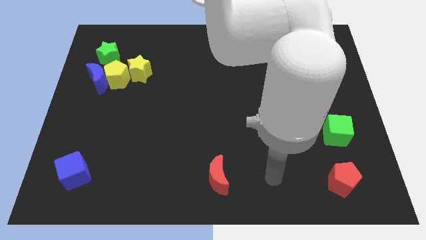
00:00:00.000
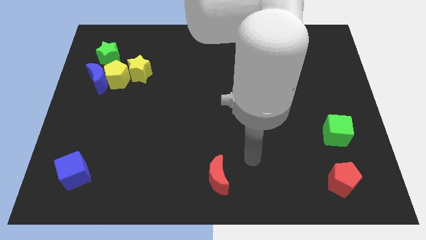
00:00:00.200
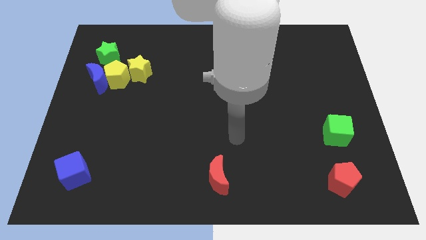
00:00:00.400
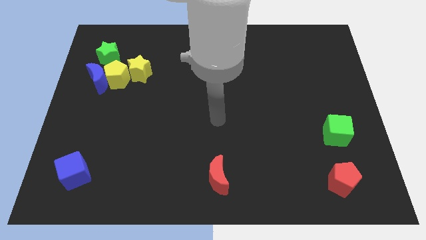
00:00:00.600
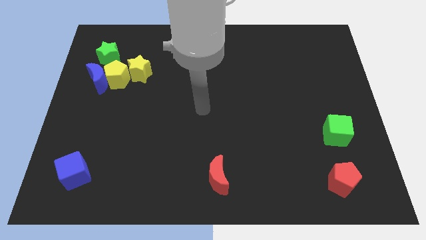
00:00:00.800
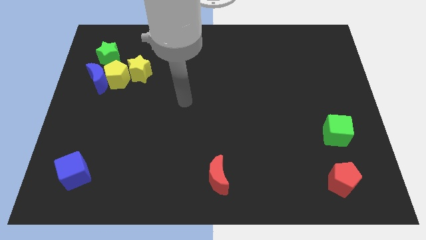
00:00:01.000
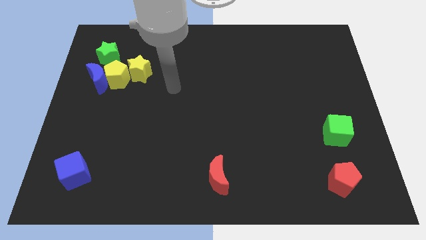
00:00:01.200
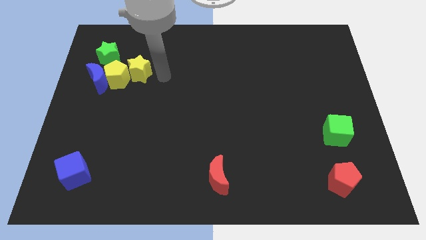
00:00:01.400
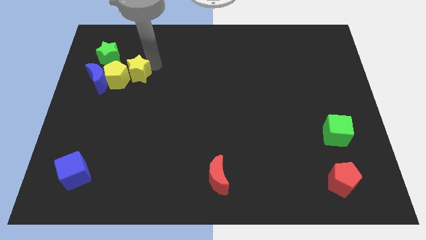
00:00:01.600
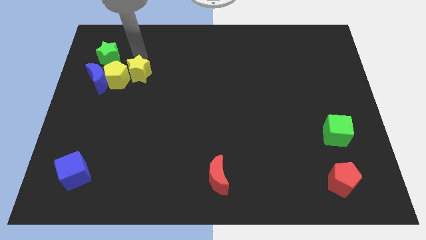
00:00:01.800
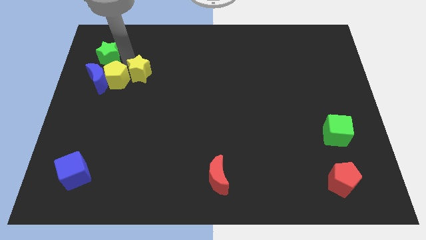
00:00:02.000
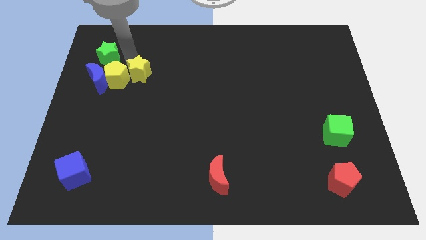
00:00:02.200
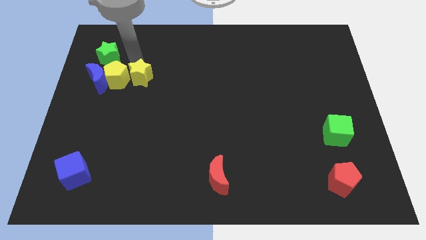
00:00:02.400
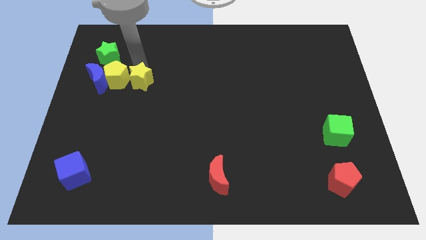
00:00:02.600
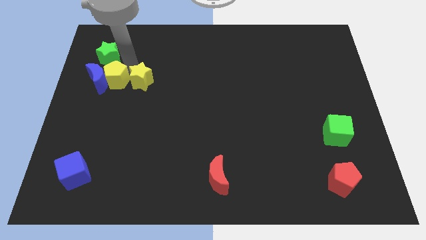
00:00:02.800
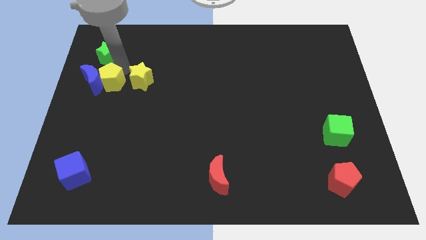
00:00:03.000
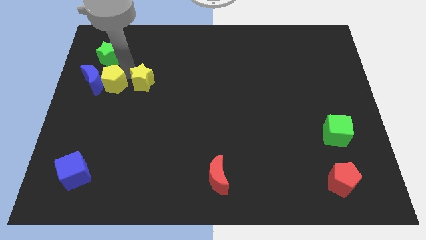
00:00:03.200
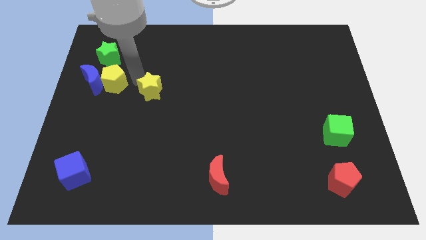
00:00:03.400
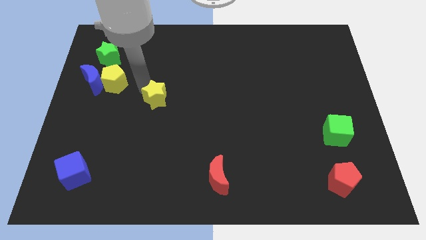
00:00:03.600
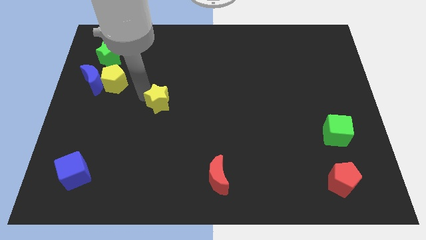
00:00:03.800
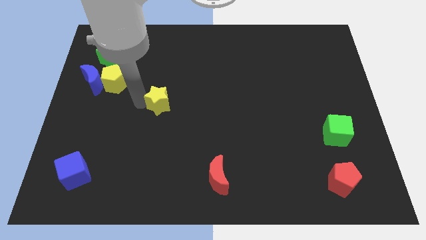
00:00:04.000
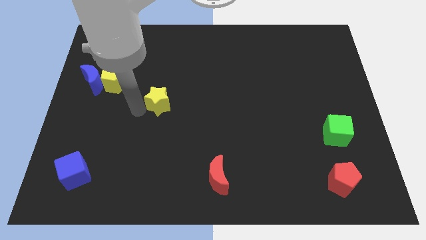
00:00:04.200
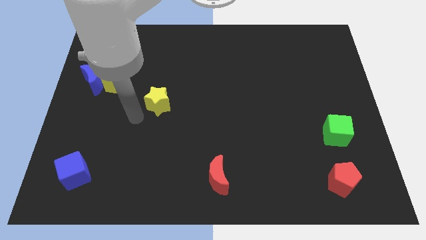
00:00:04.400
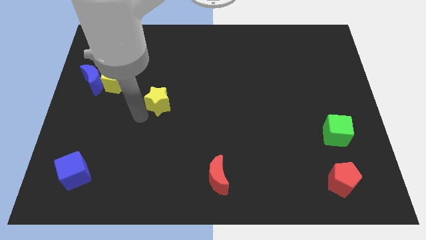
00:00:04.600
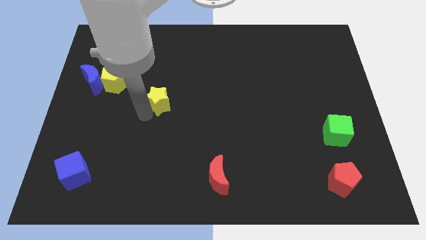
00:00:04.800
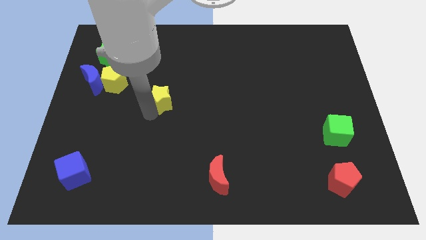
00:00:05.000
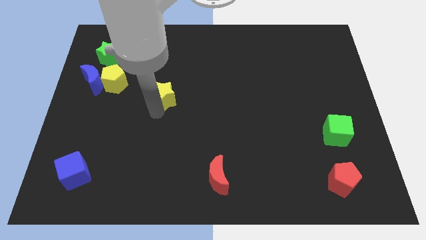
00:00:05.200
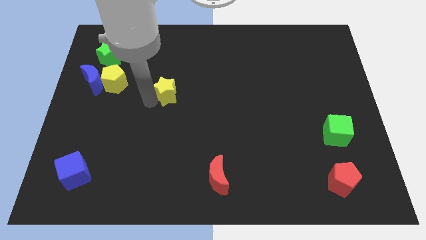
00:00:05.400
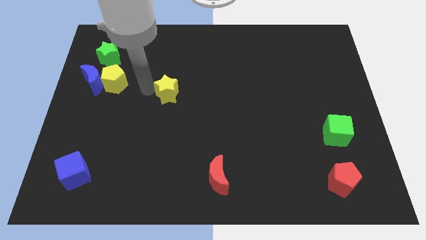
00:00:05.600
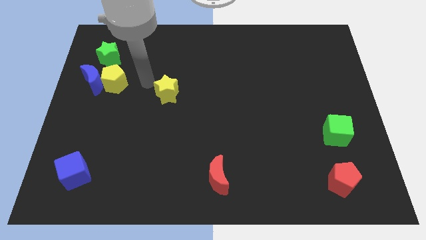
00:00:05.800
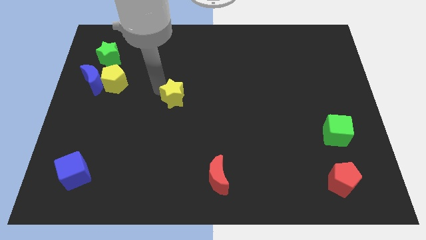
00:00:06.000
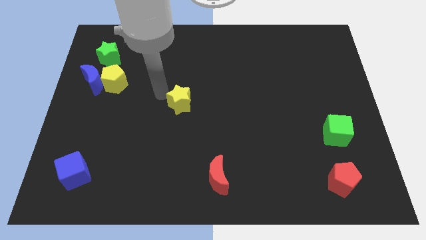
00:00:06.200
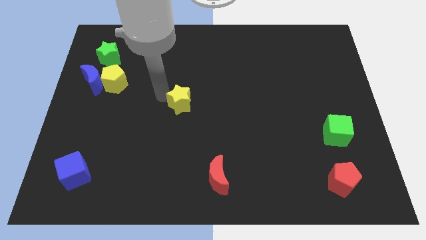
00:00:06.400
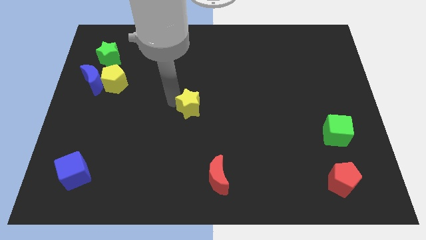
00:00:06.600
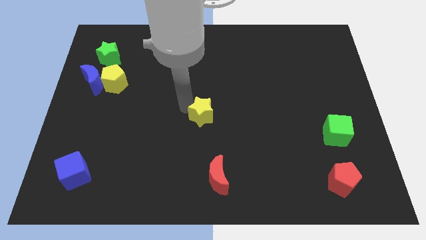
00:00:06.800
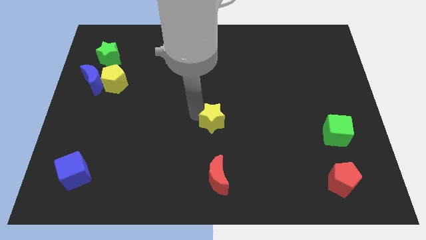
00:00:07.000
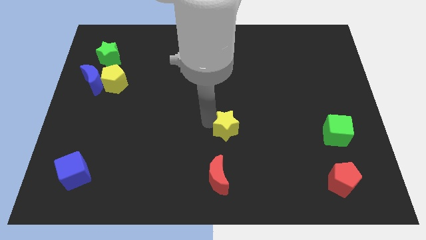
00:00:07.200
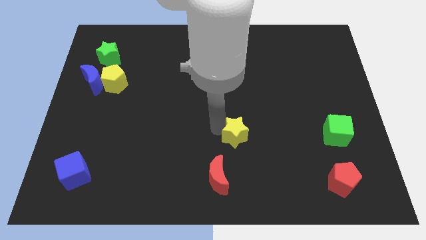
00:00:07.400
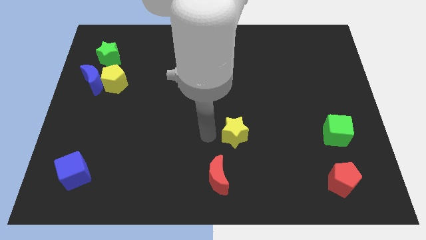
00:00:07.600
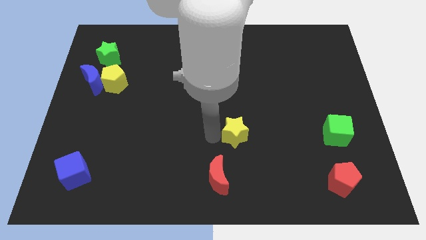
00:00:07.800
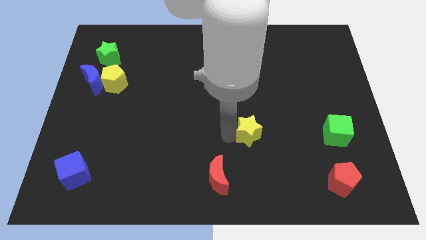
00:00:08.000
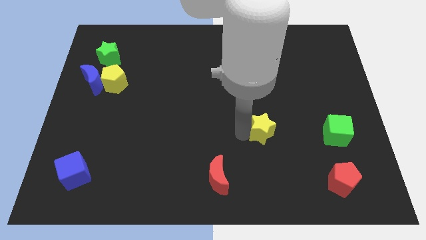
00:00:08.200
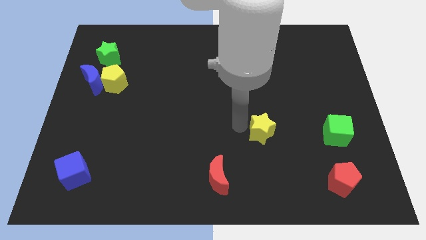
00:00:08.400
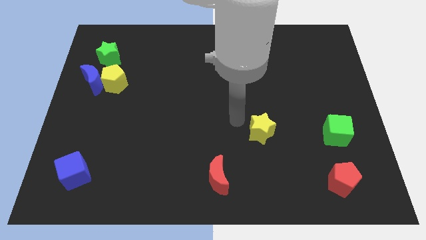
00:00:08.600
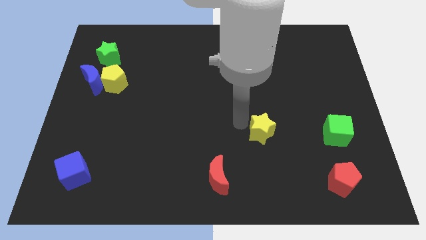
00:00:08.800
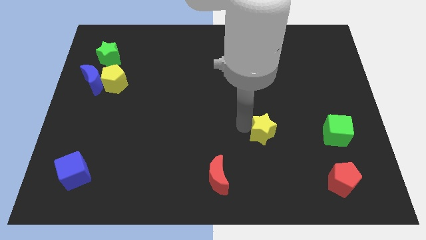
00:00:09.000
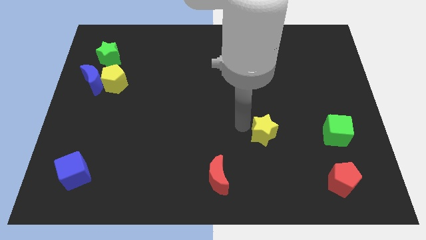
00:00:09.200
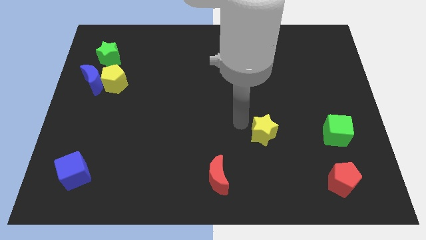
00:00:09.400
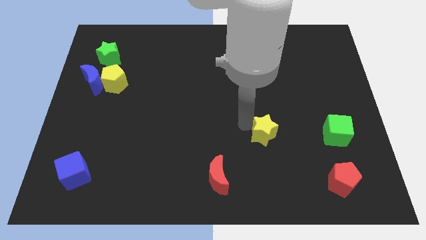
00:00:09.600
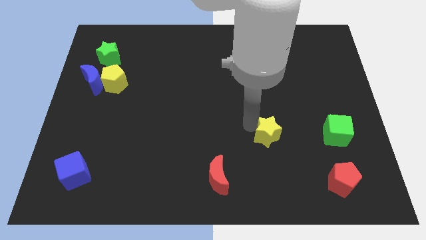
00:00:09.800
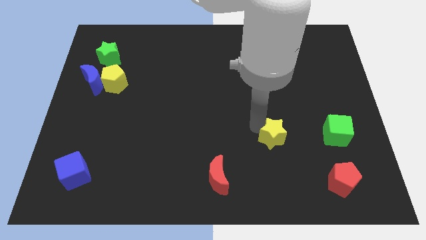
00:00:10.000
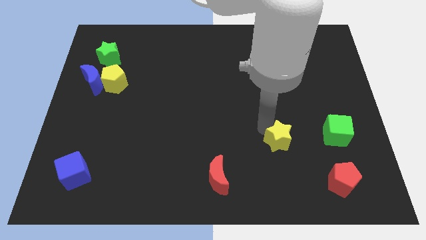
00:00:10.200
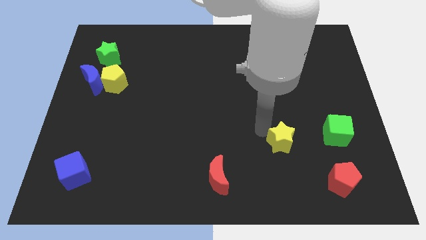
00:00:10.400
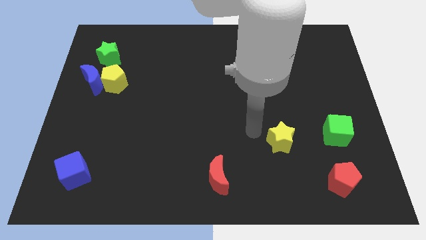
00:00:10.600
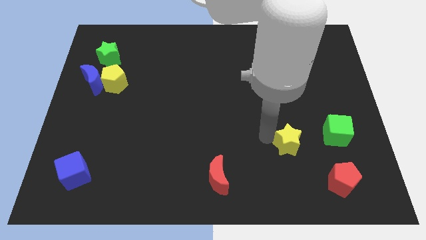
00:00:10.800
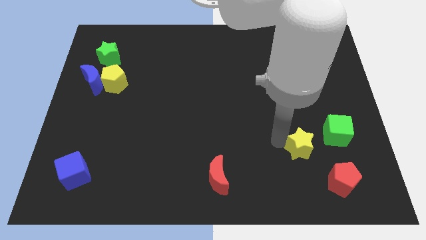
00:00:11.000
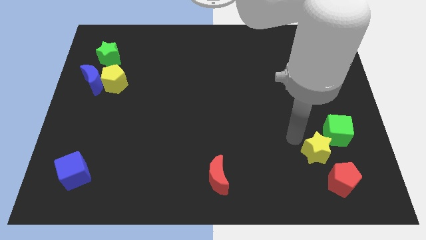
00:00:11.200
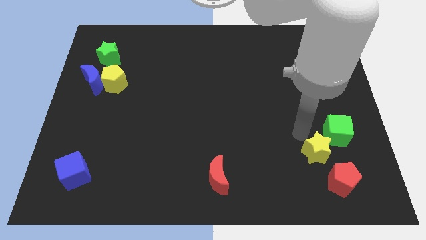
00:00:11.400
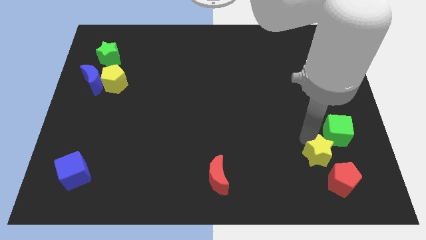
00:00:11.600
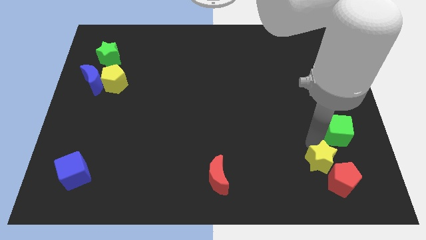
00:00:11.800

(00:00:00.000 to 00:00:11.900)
slide the yellow star to the red pentagon
